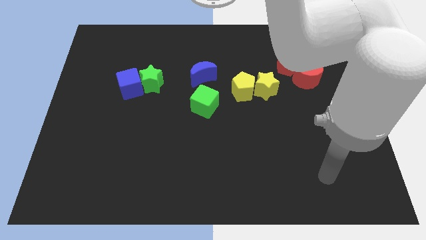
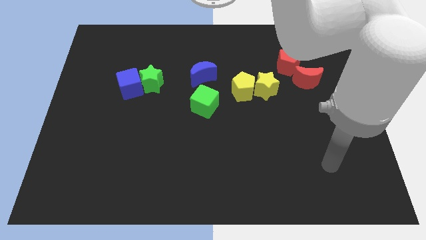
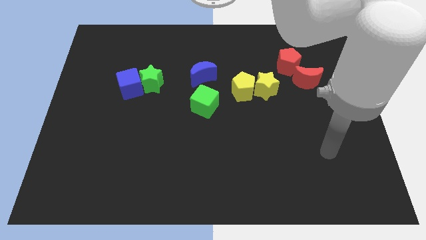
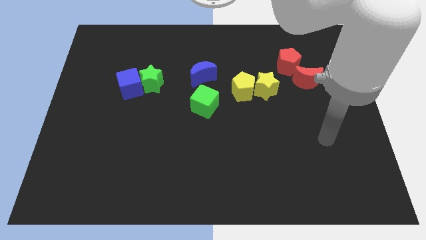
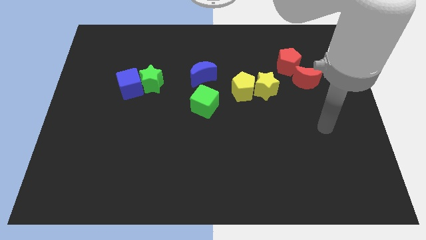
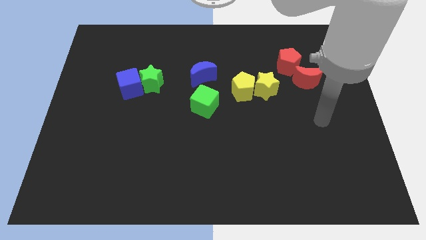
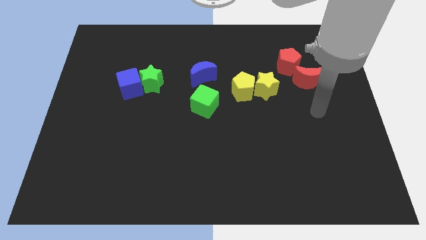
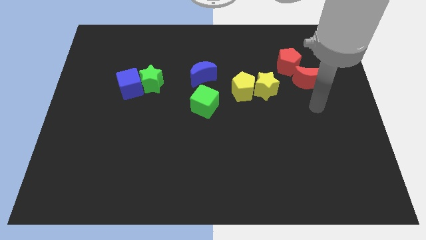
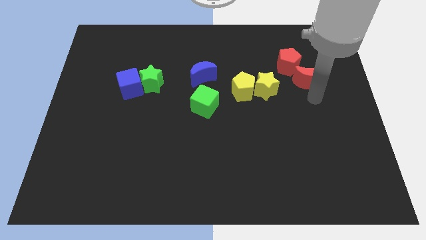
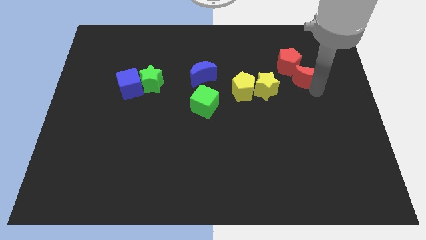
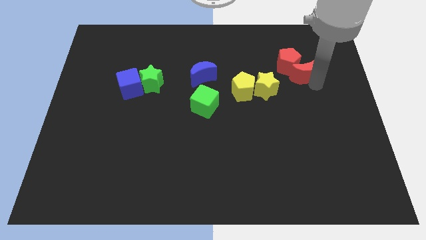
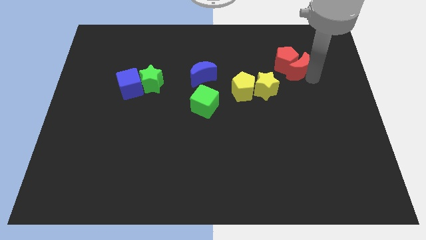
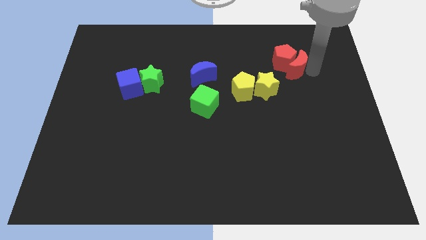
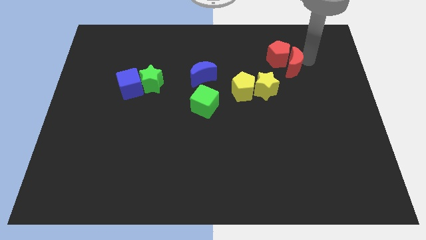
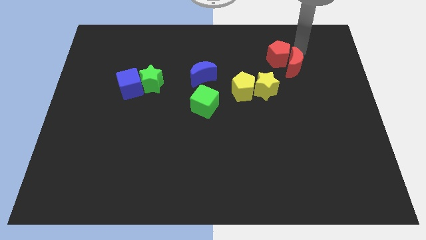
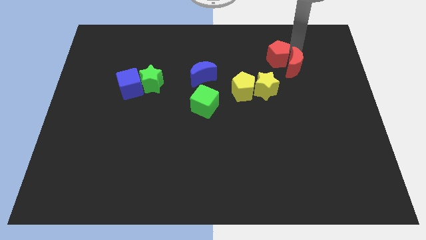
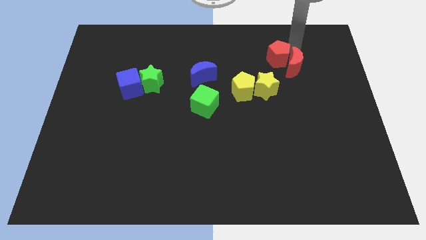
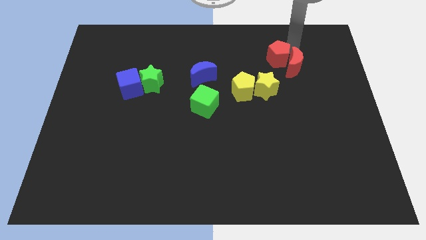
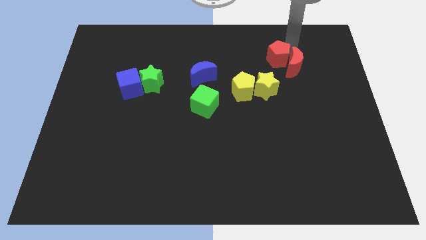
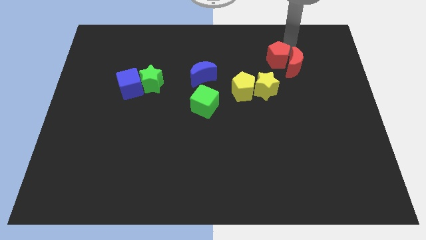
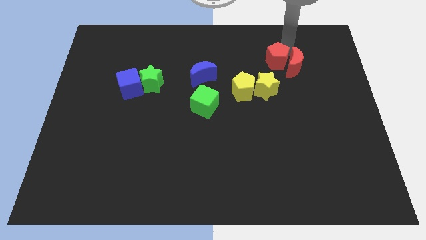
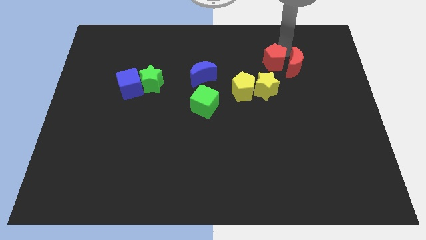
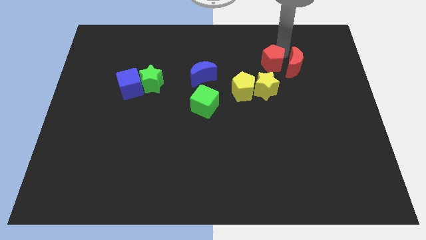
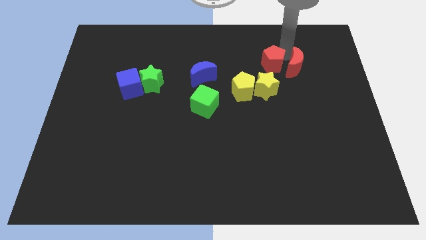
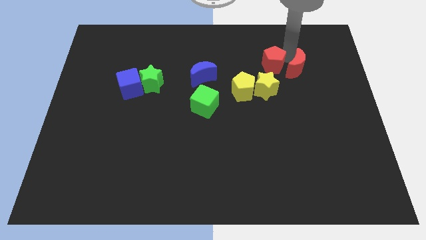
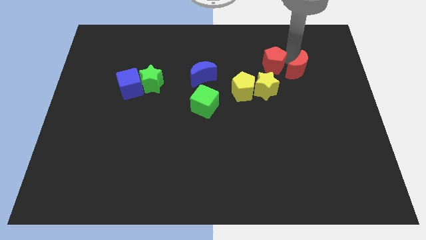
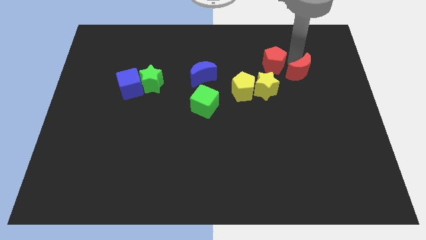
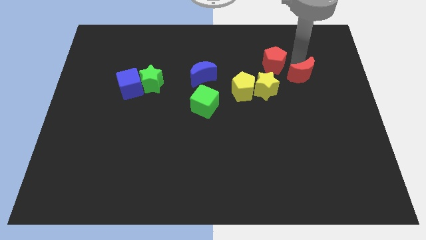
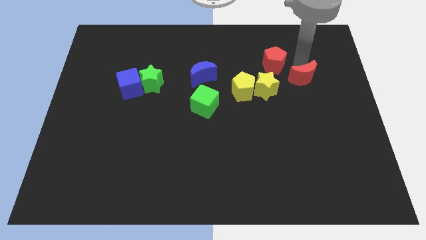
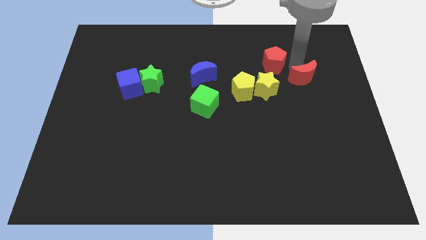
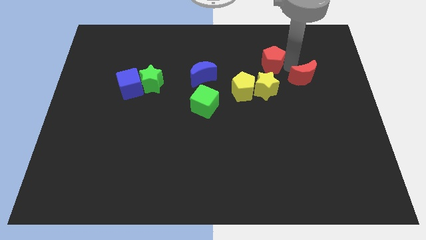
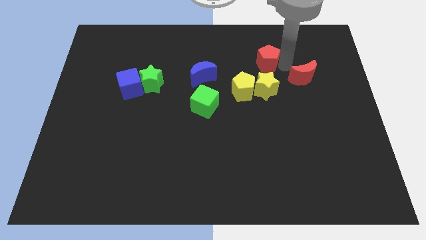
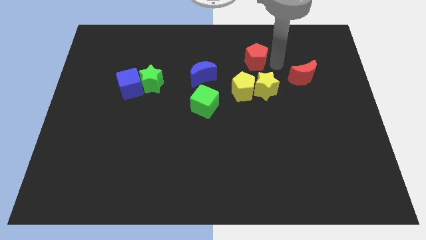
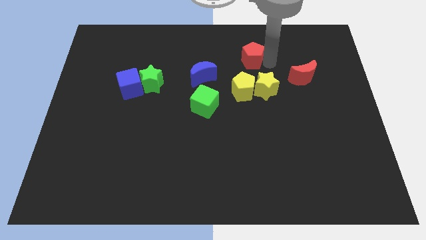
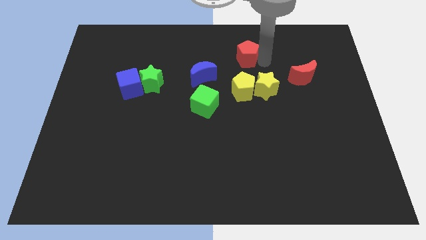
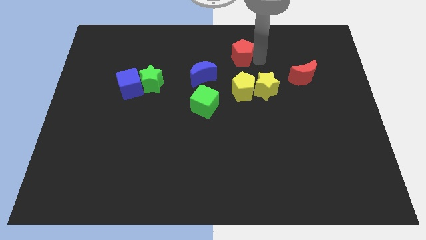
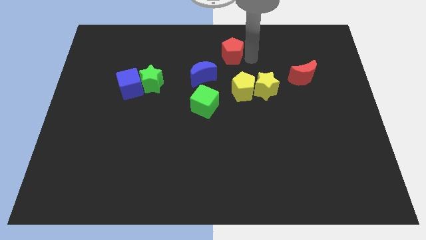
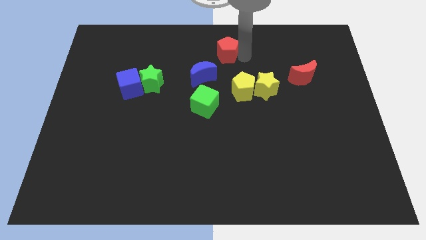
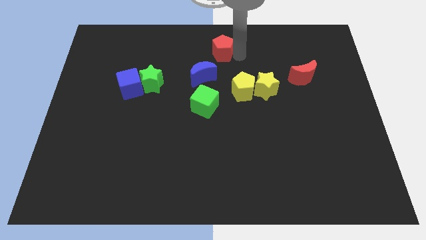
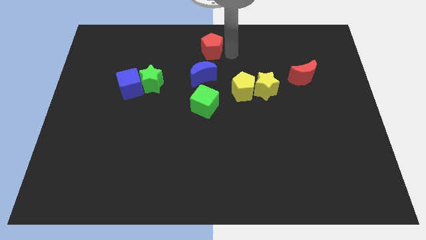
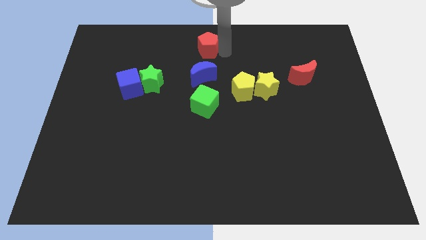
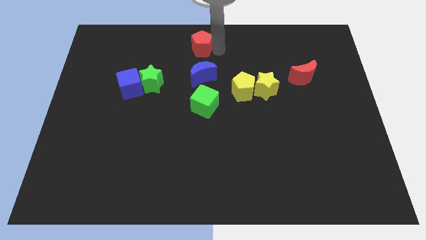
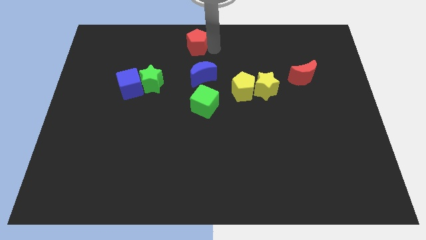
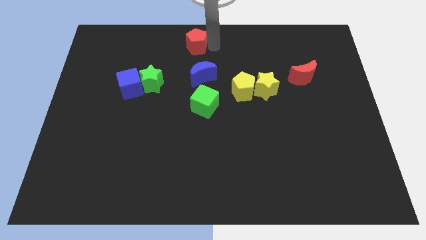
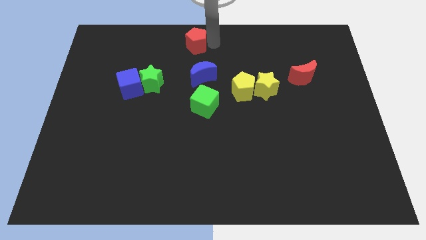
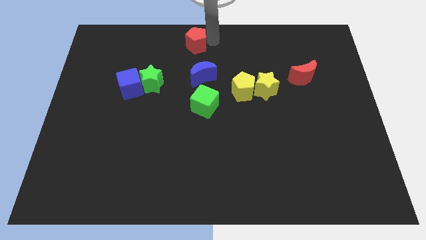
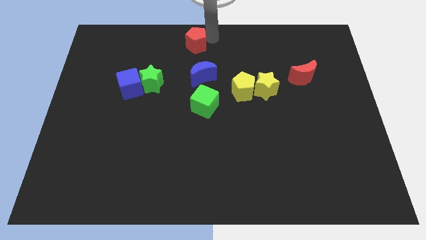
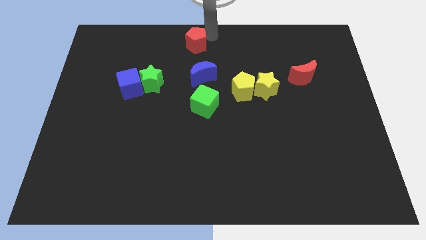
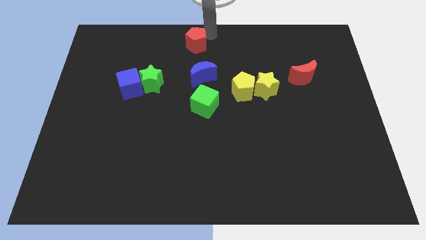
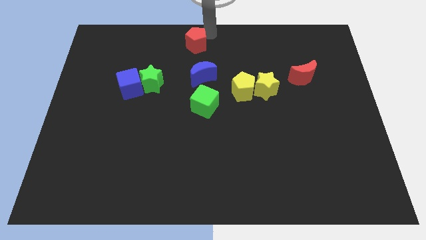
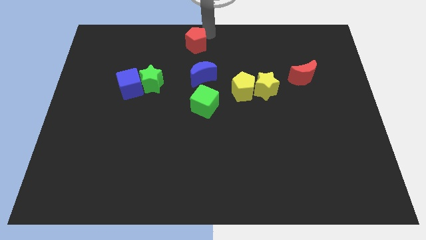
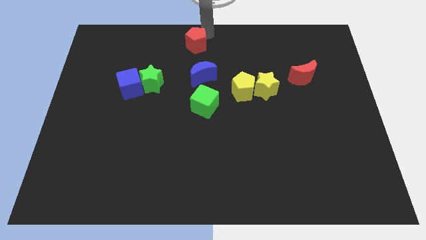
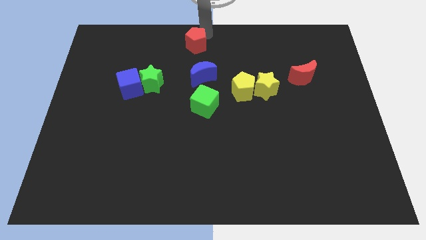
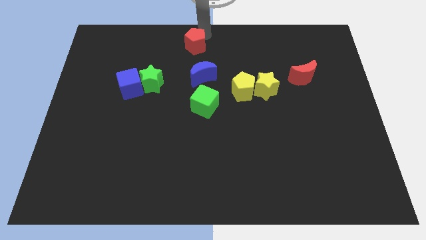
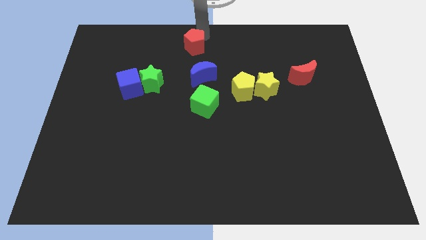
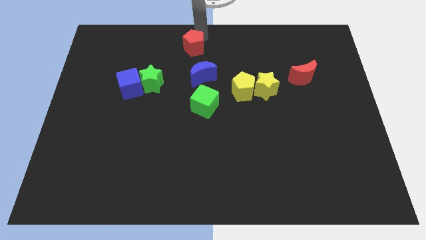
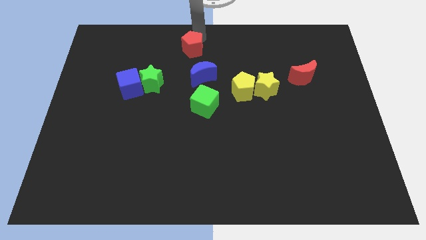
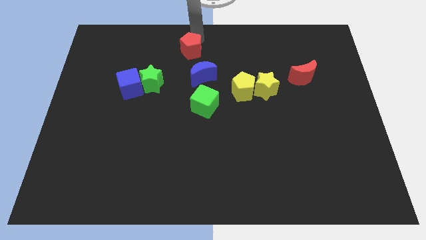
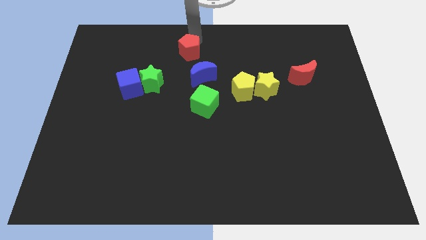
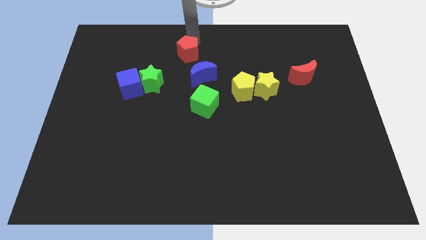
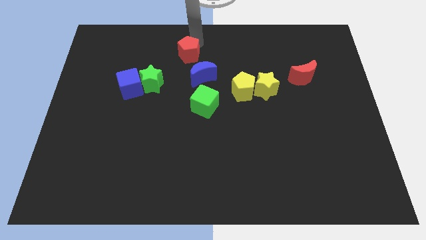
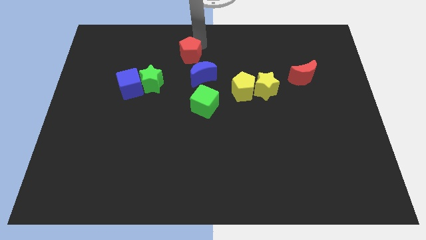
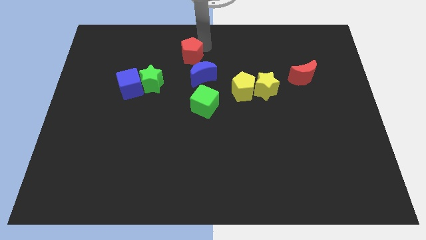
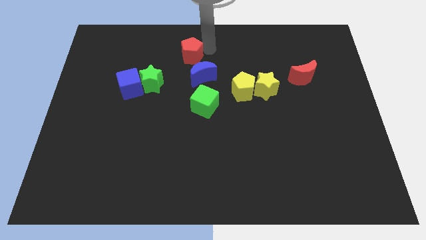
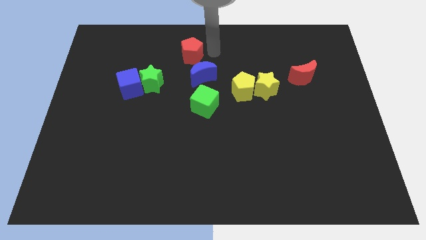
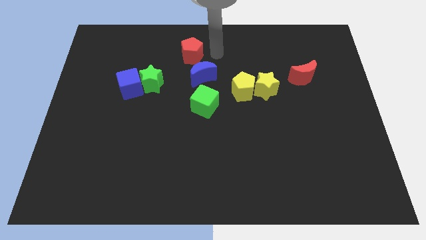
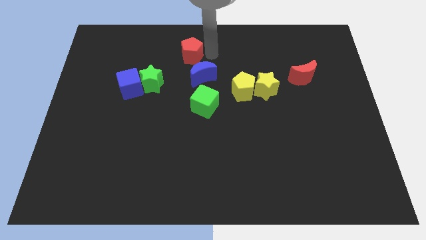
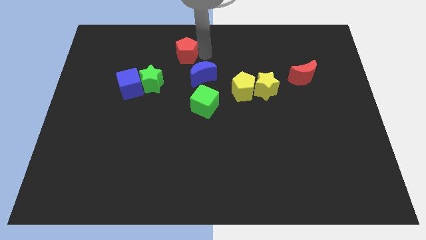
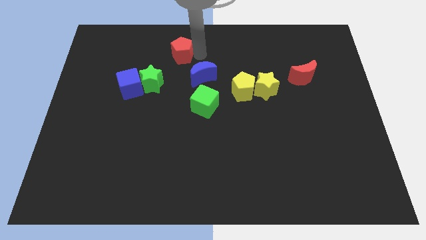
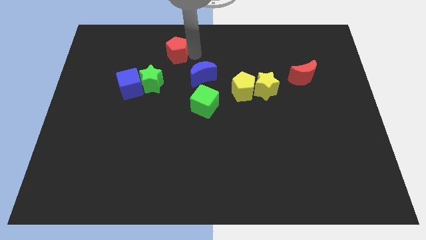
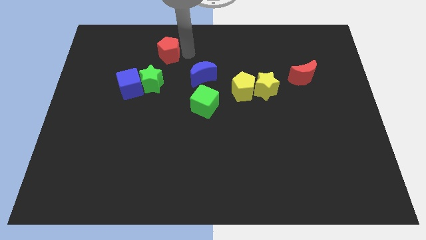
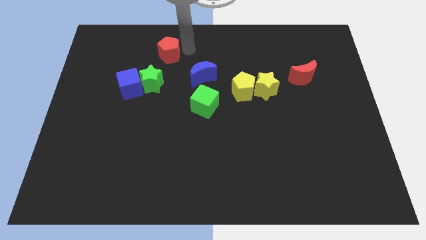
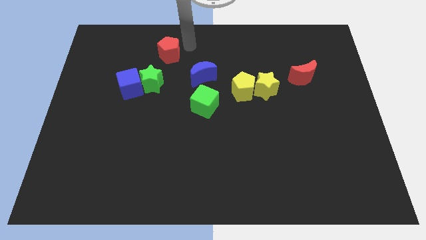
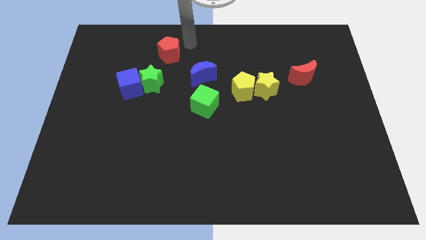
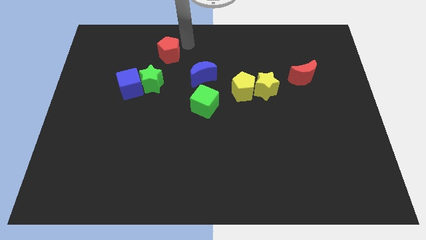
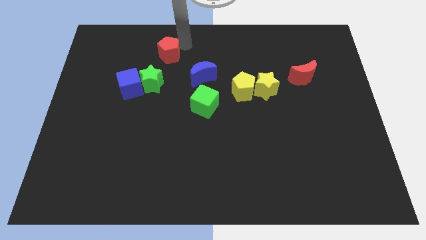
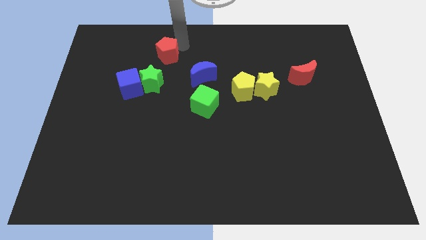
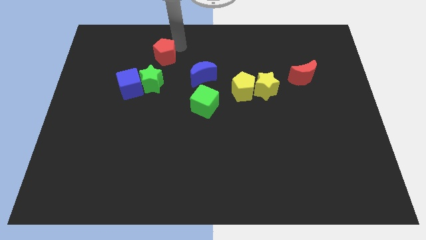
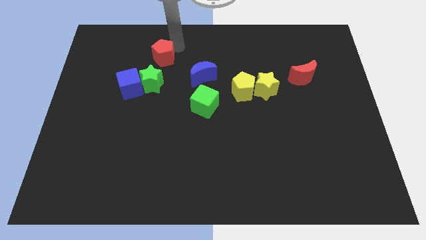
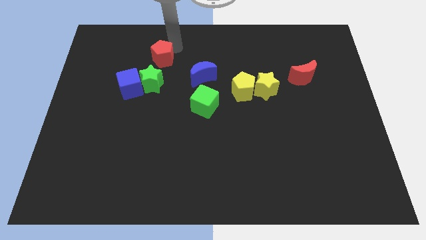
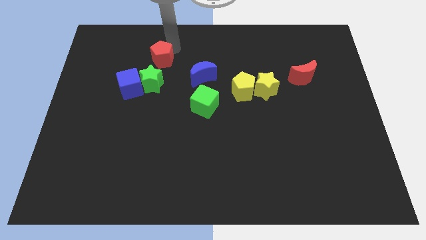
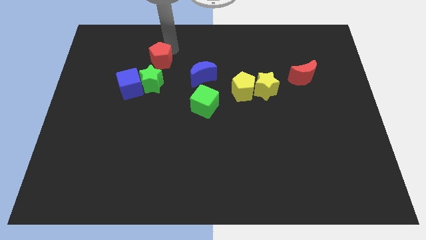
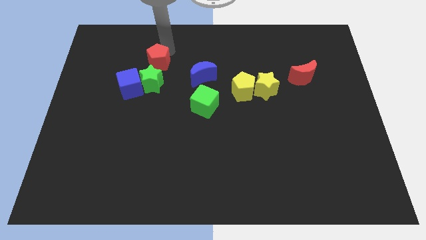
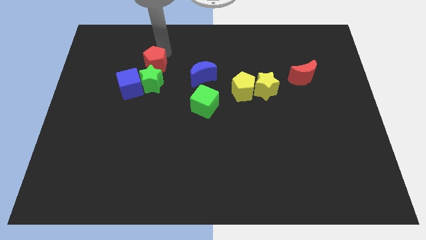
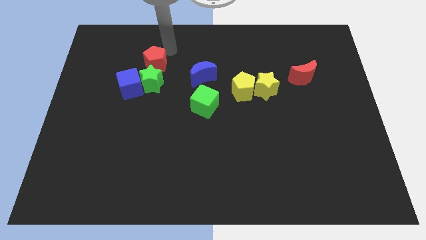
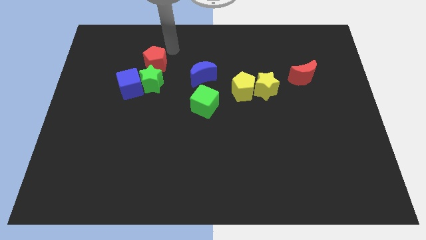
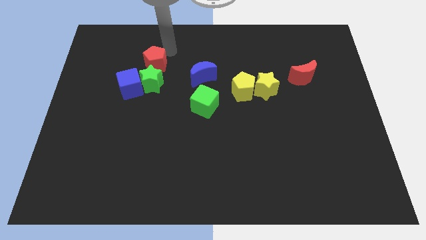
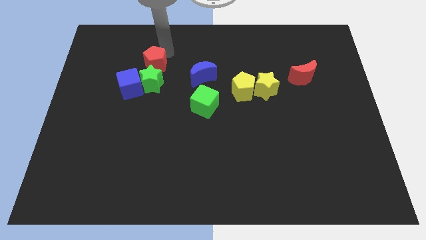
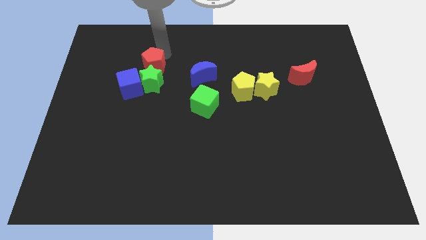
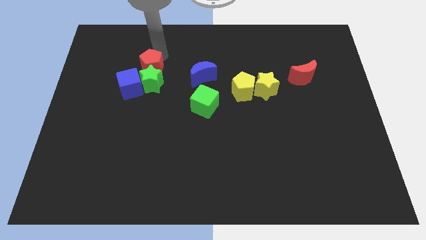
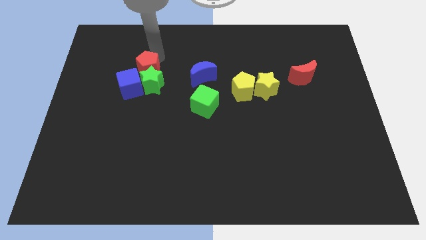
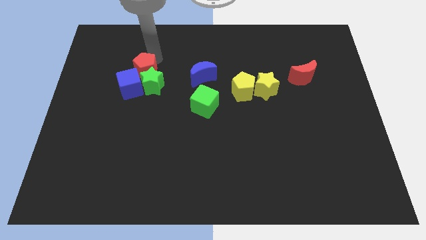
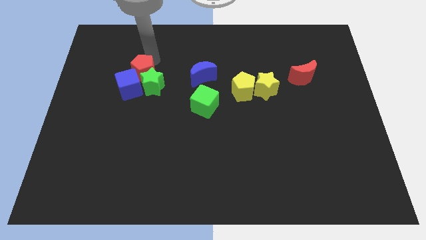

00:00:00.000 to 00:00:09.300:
put the red pentagon towards the blue cube
